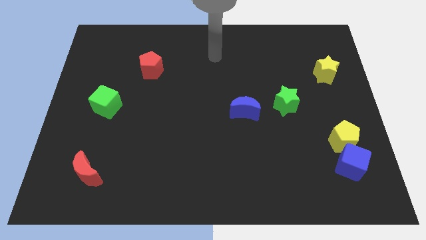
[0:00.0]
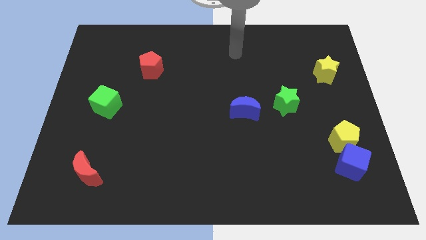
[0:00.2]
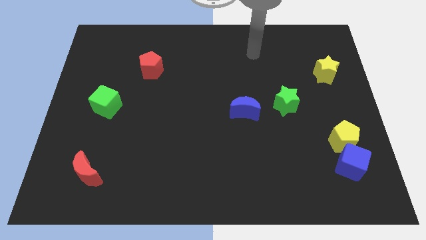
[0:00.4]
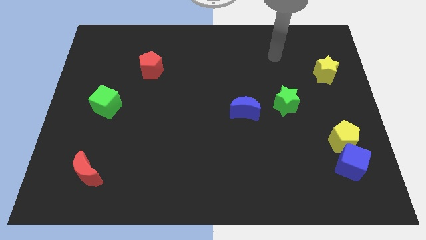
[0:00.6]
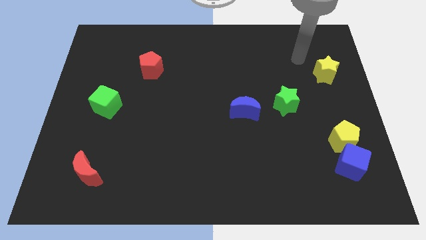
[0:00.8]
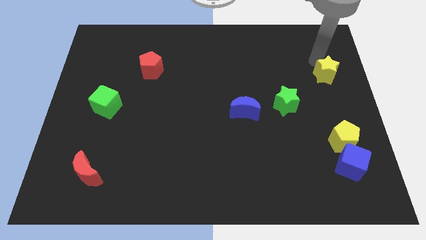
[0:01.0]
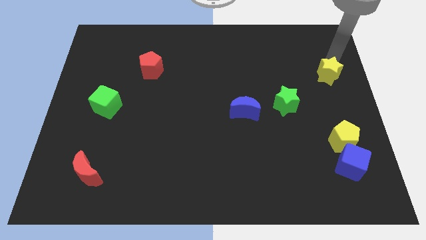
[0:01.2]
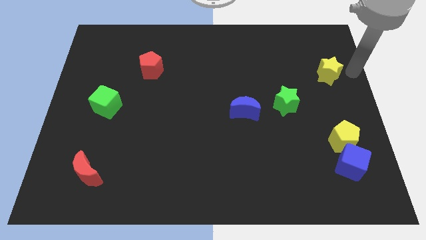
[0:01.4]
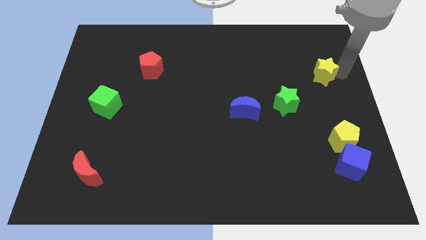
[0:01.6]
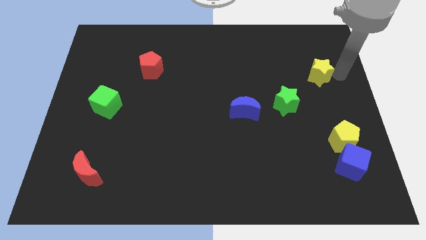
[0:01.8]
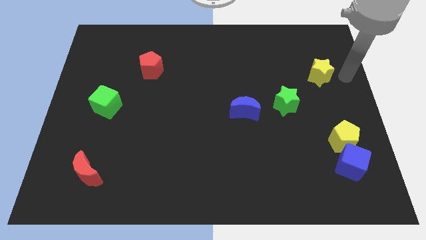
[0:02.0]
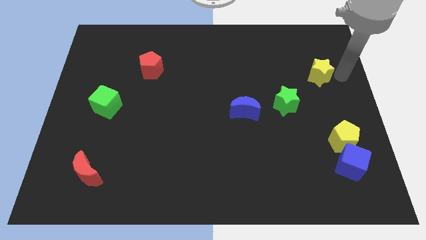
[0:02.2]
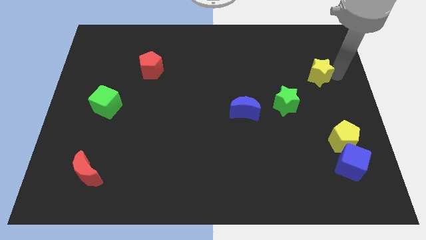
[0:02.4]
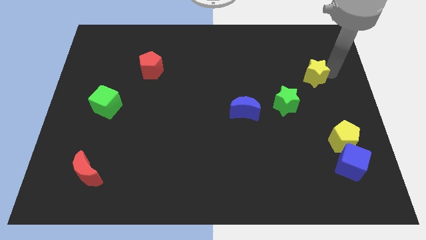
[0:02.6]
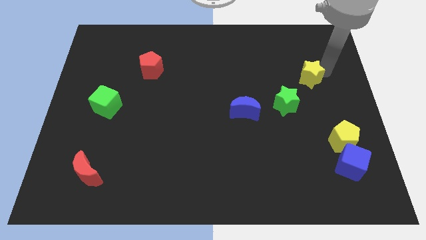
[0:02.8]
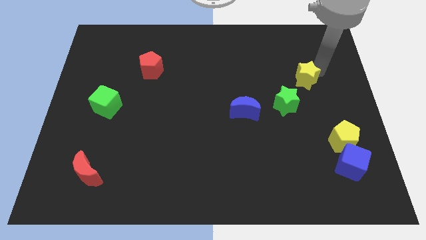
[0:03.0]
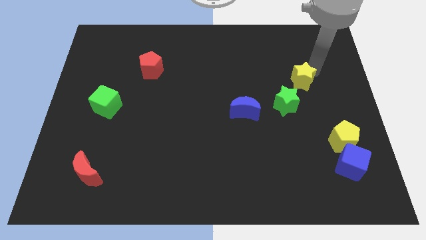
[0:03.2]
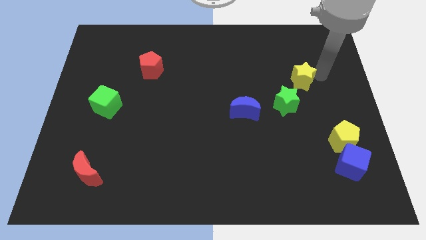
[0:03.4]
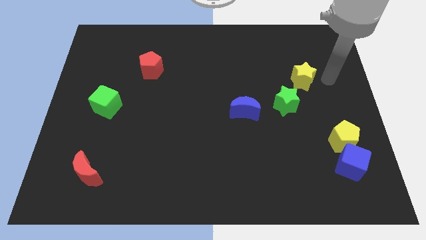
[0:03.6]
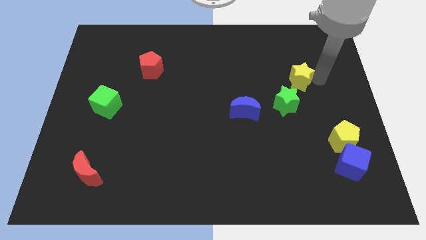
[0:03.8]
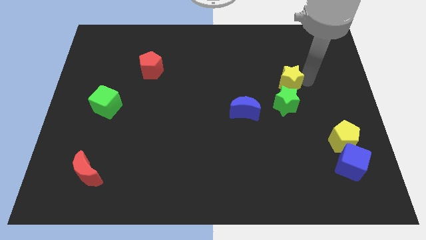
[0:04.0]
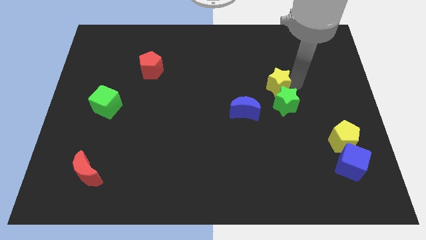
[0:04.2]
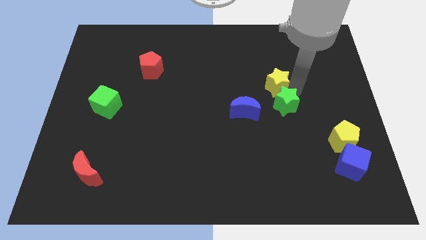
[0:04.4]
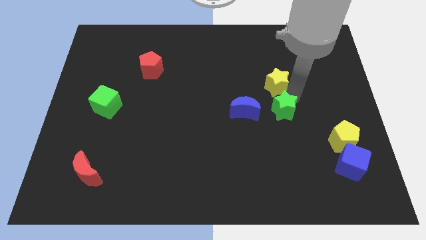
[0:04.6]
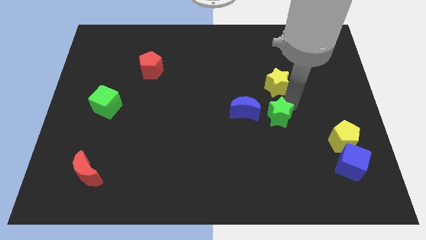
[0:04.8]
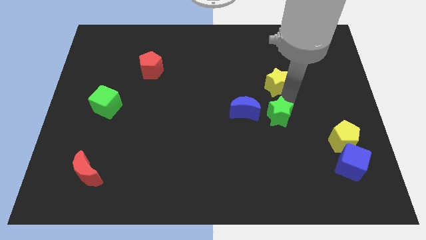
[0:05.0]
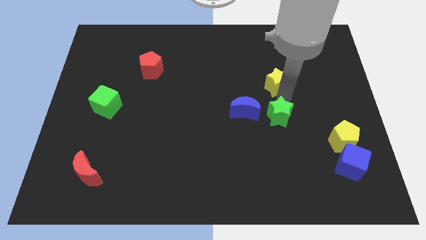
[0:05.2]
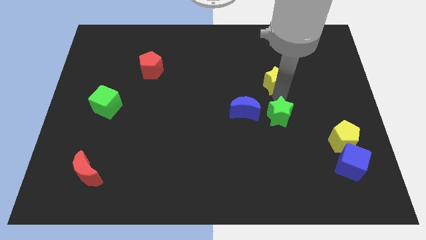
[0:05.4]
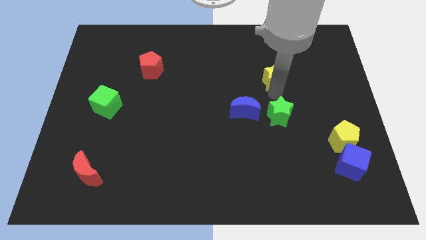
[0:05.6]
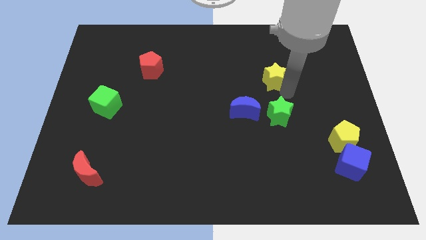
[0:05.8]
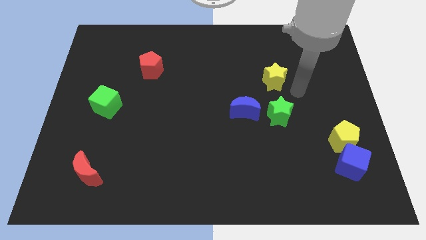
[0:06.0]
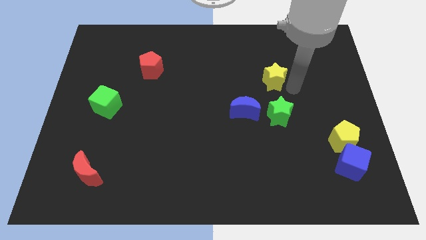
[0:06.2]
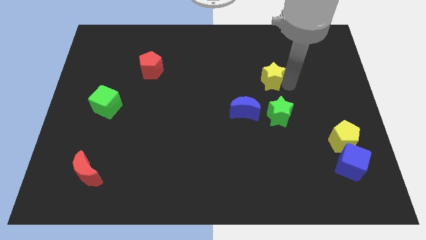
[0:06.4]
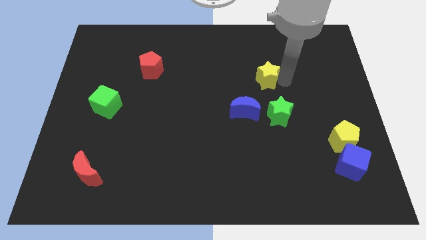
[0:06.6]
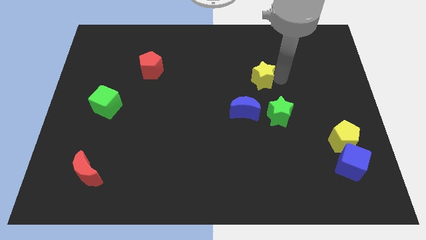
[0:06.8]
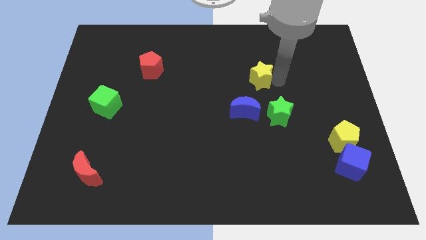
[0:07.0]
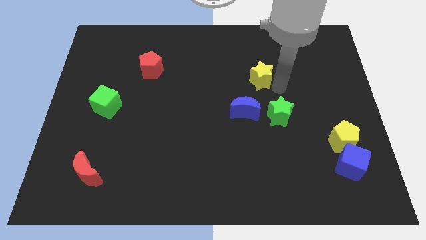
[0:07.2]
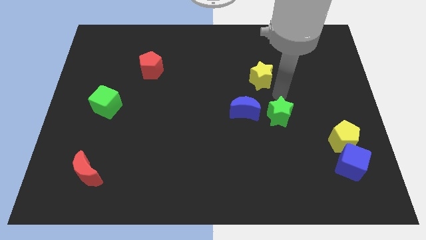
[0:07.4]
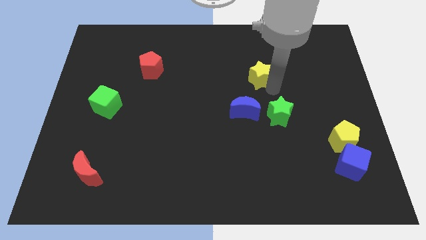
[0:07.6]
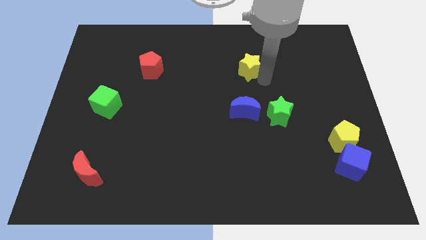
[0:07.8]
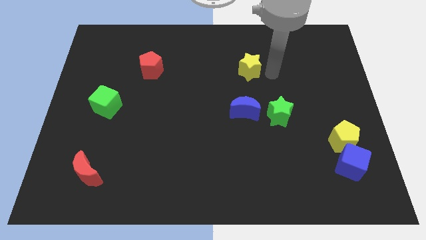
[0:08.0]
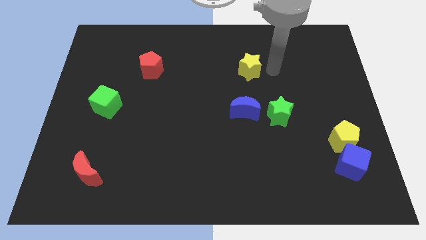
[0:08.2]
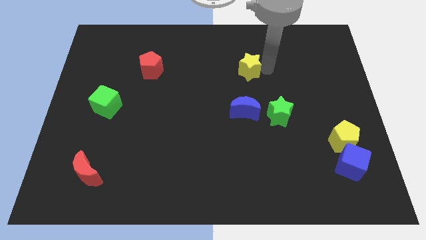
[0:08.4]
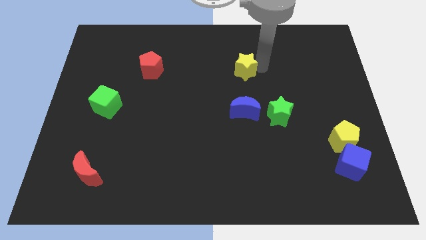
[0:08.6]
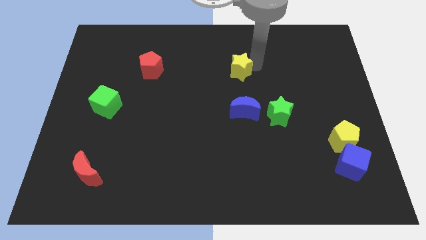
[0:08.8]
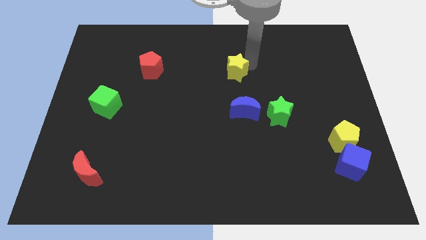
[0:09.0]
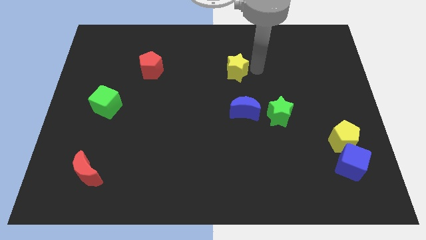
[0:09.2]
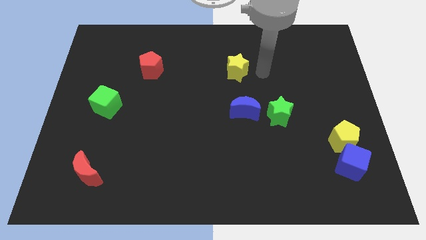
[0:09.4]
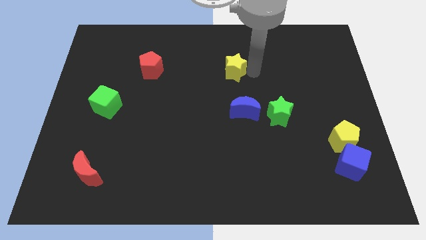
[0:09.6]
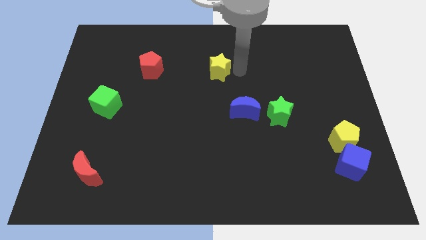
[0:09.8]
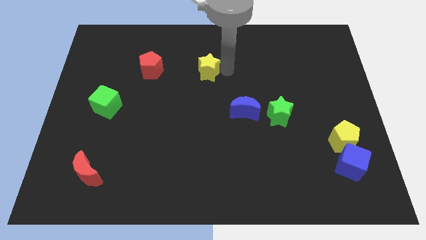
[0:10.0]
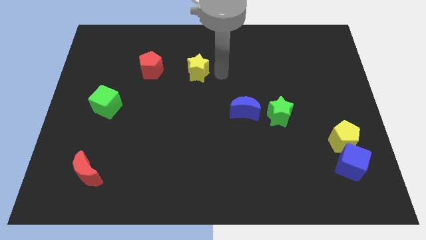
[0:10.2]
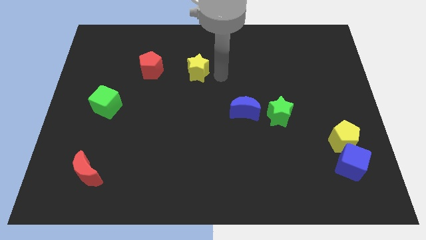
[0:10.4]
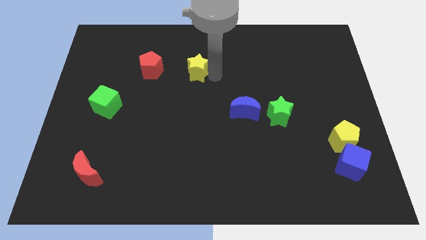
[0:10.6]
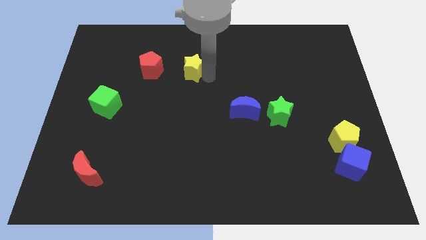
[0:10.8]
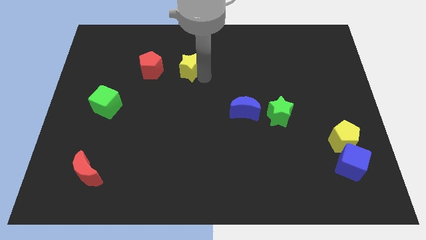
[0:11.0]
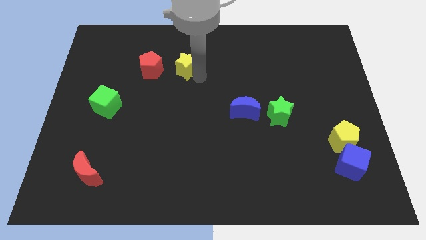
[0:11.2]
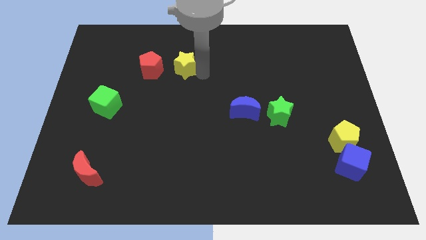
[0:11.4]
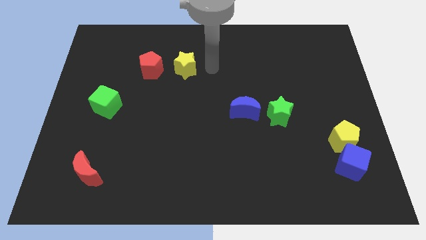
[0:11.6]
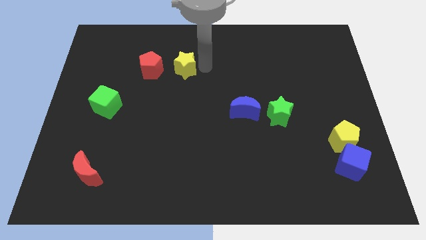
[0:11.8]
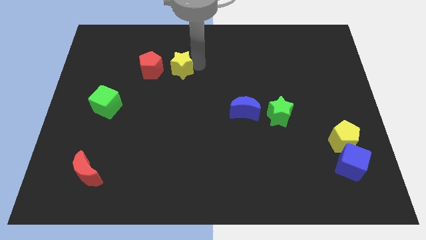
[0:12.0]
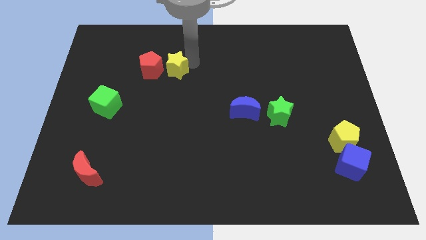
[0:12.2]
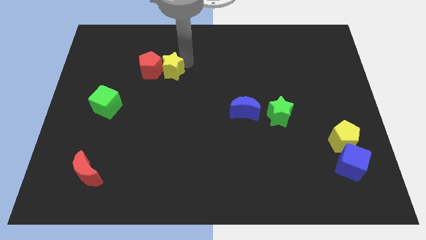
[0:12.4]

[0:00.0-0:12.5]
move the yellow star next to the red pentagon

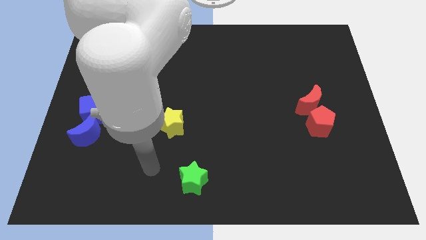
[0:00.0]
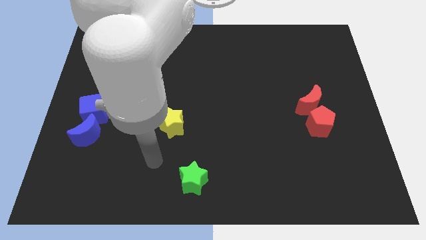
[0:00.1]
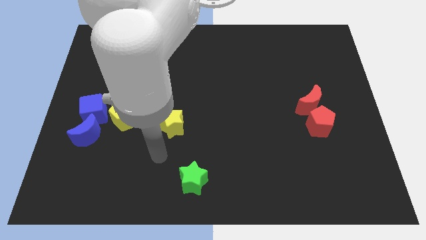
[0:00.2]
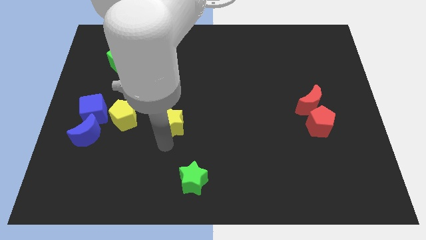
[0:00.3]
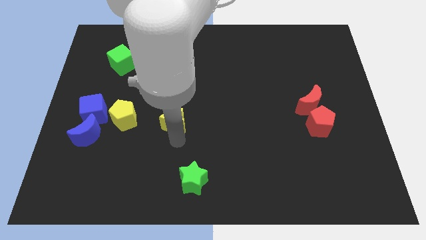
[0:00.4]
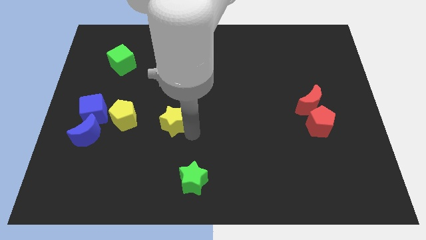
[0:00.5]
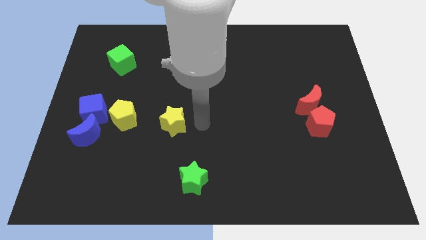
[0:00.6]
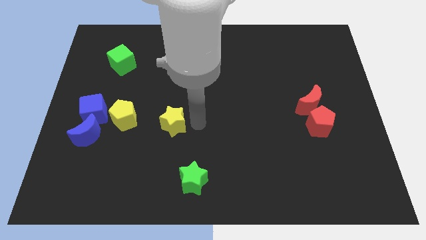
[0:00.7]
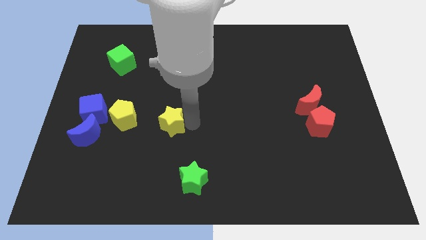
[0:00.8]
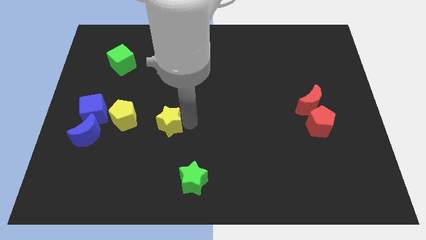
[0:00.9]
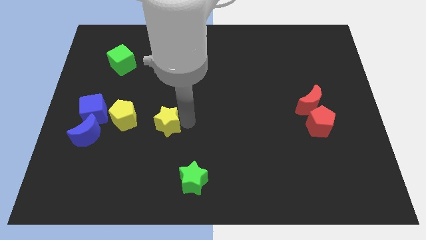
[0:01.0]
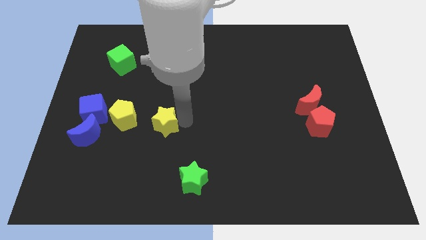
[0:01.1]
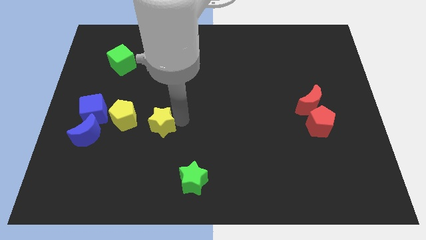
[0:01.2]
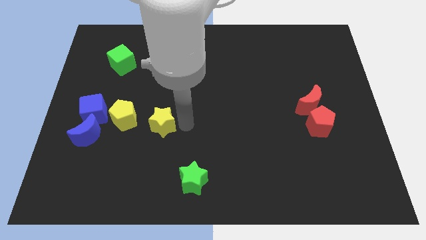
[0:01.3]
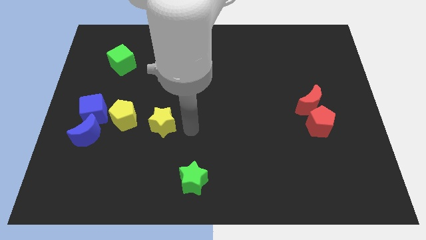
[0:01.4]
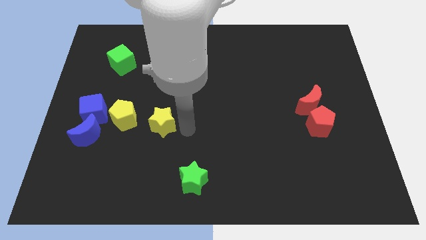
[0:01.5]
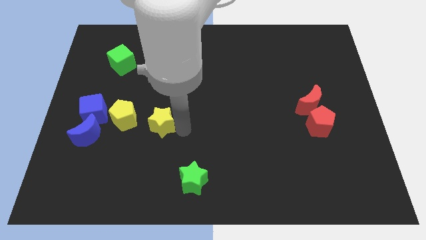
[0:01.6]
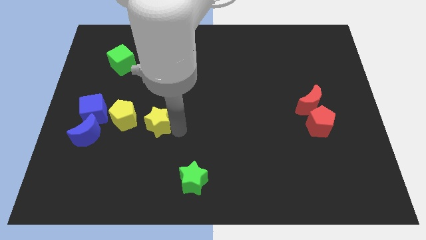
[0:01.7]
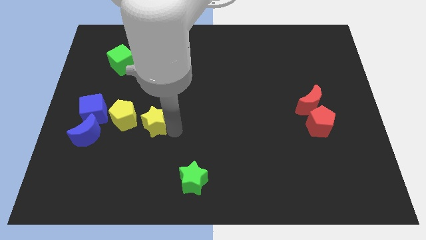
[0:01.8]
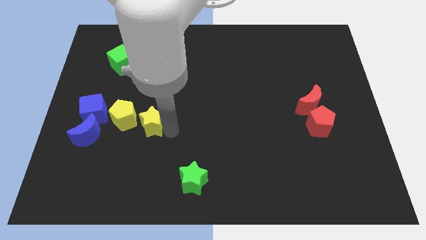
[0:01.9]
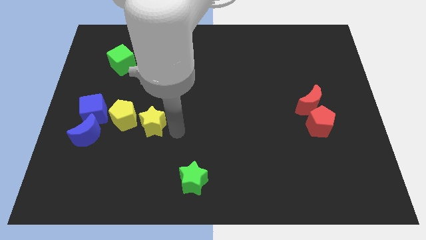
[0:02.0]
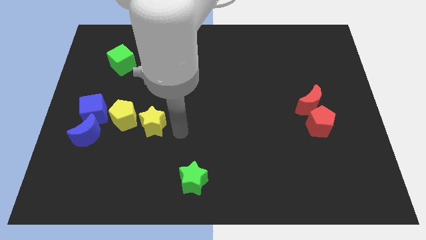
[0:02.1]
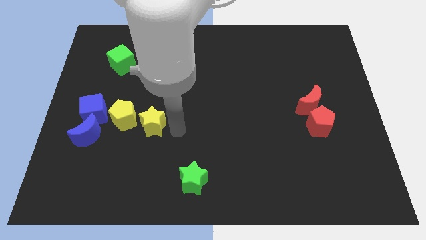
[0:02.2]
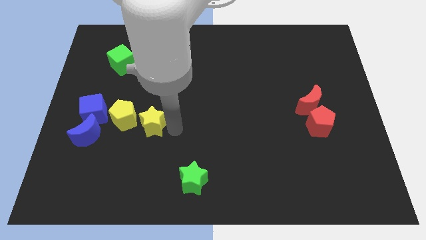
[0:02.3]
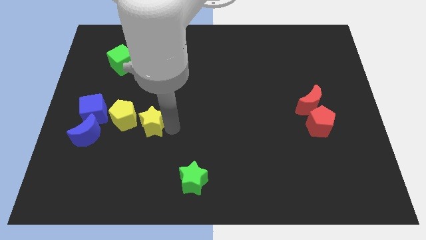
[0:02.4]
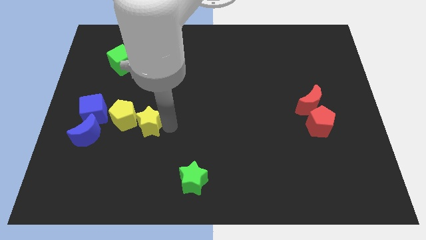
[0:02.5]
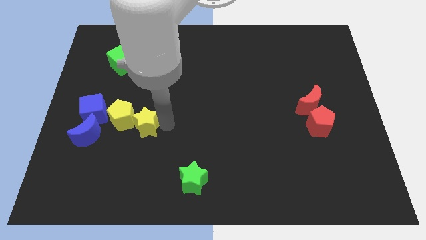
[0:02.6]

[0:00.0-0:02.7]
move the yellow star towards the yellow pentagon
